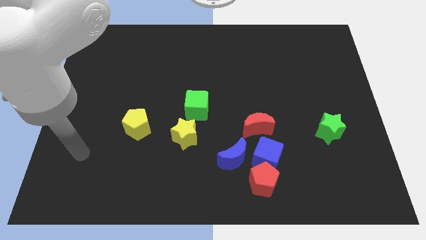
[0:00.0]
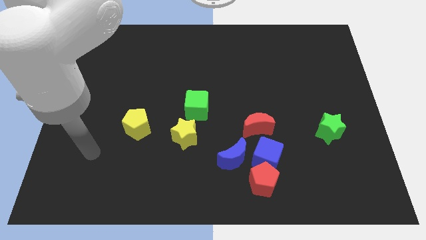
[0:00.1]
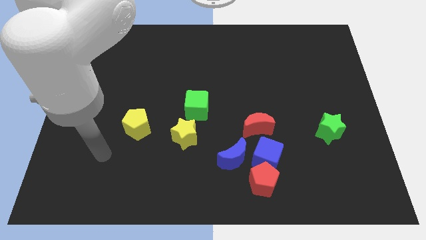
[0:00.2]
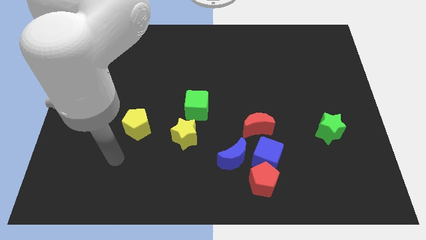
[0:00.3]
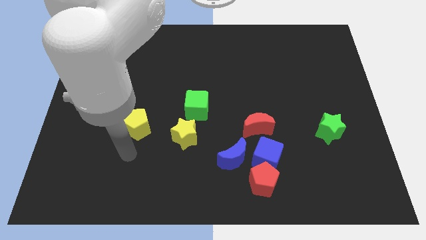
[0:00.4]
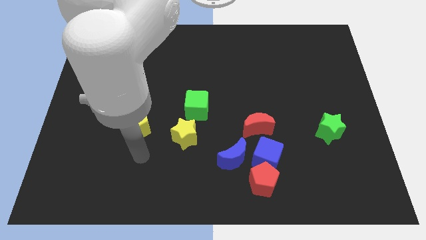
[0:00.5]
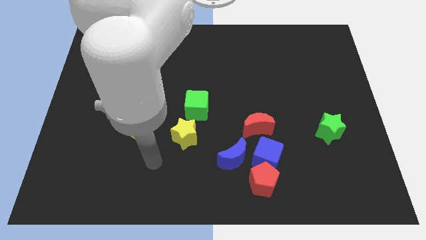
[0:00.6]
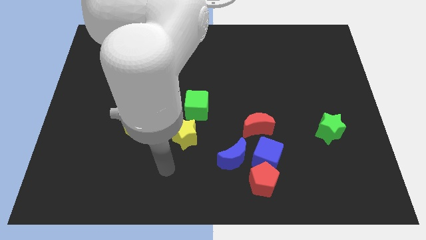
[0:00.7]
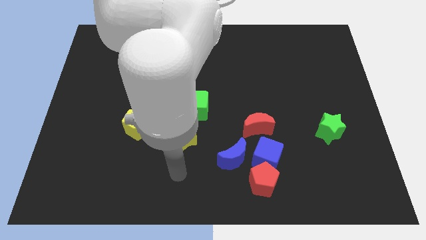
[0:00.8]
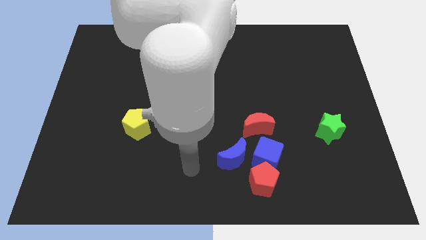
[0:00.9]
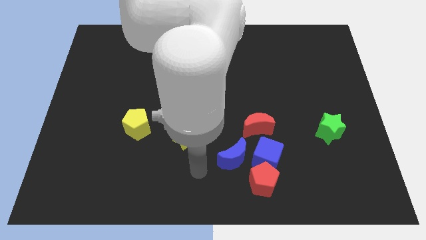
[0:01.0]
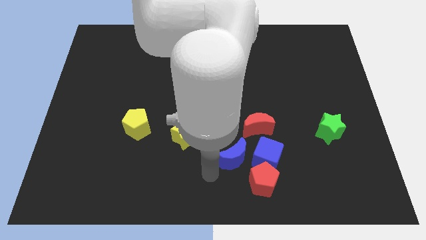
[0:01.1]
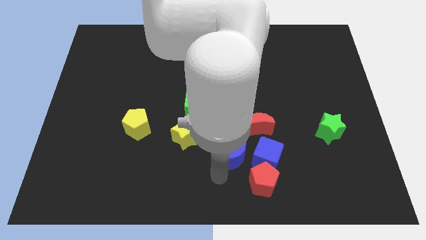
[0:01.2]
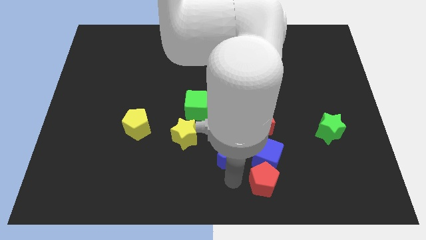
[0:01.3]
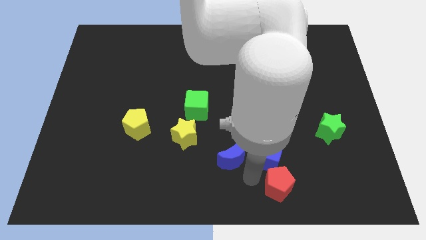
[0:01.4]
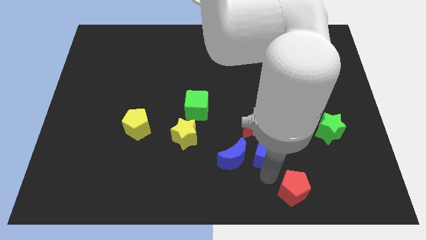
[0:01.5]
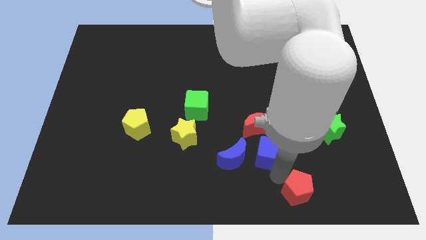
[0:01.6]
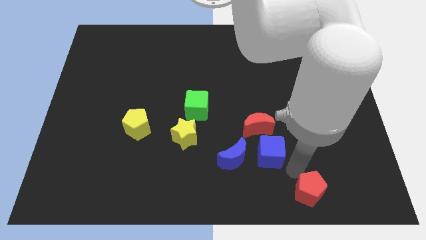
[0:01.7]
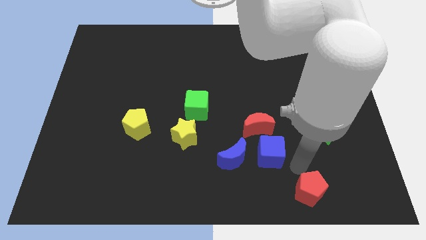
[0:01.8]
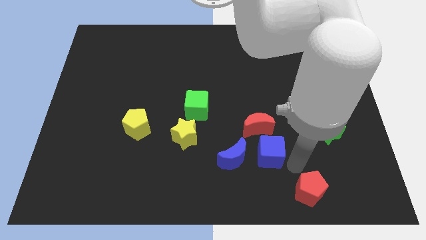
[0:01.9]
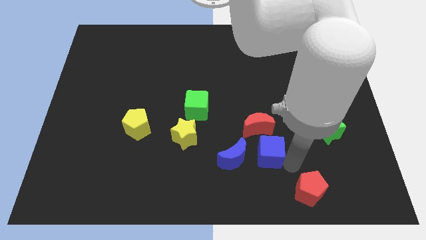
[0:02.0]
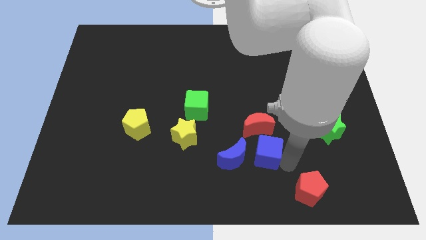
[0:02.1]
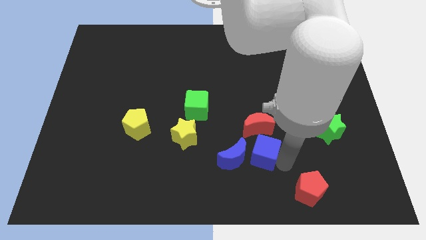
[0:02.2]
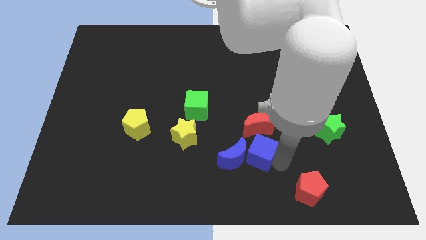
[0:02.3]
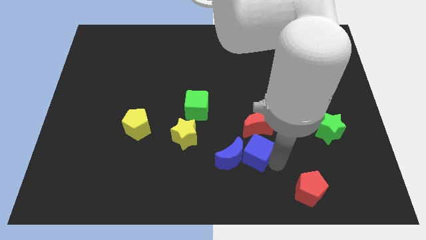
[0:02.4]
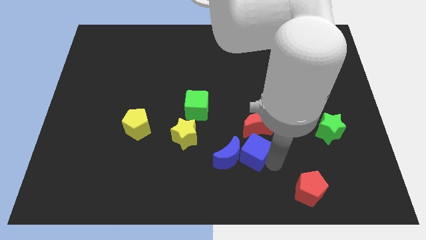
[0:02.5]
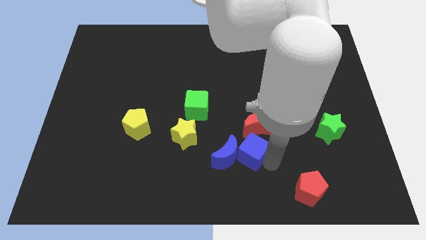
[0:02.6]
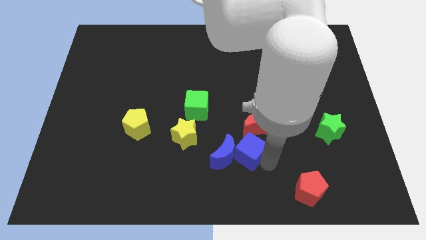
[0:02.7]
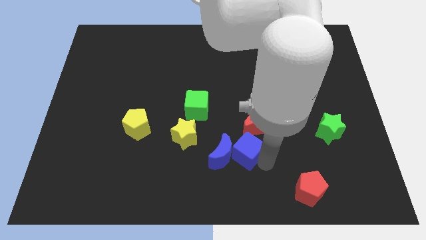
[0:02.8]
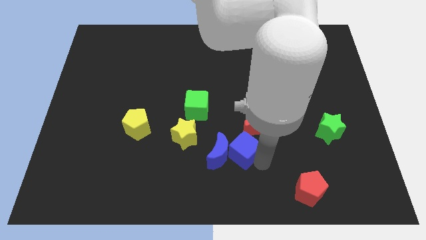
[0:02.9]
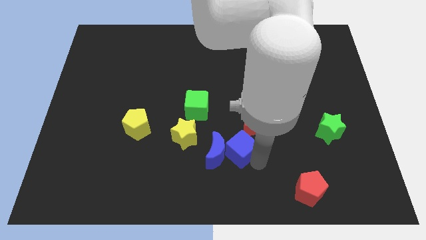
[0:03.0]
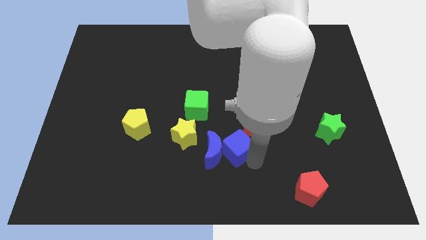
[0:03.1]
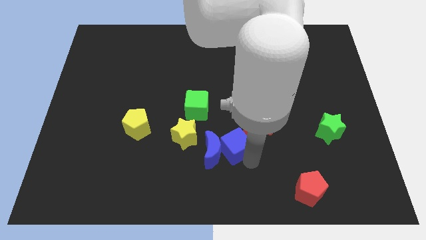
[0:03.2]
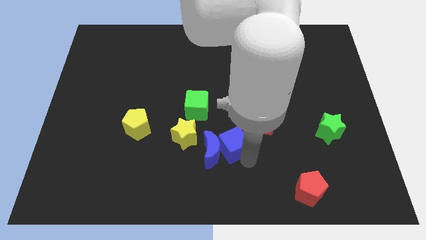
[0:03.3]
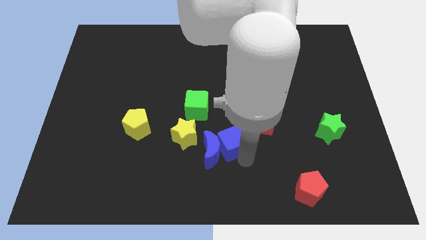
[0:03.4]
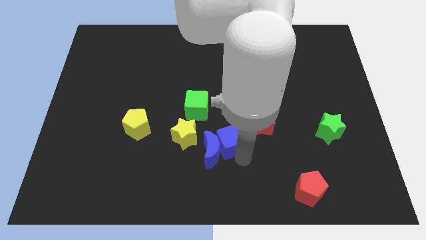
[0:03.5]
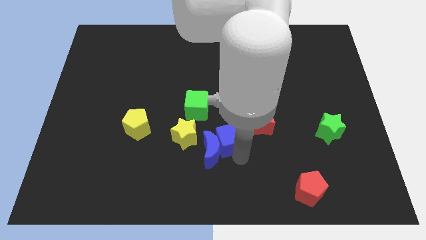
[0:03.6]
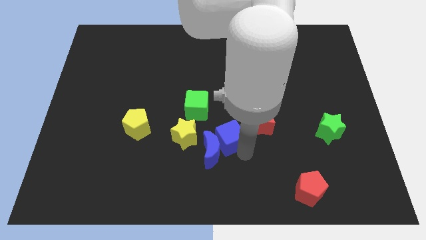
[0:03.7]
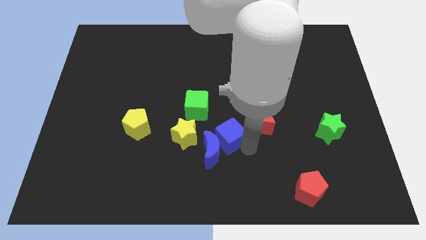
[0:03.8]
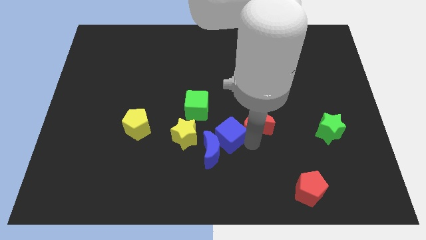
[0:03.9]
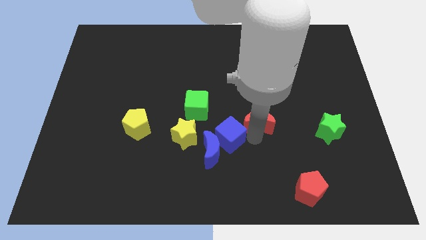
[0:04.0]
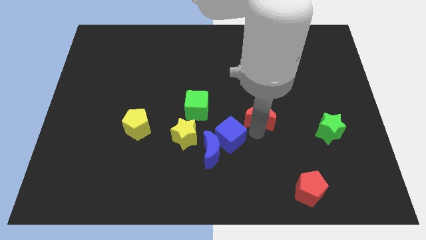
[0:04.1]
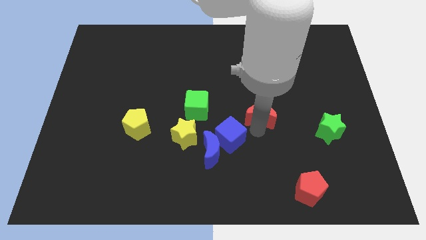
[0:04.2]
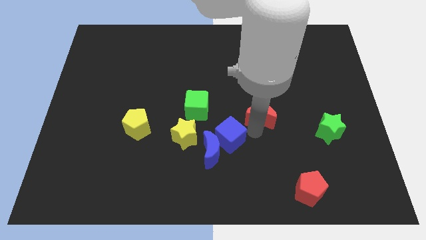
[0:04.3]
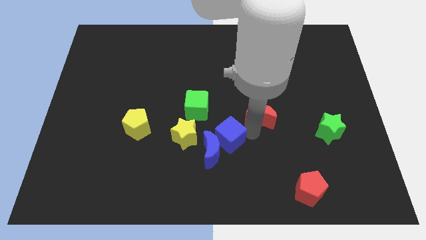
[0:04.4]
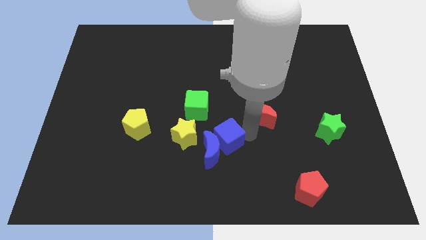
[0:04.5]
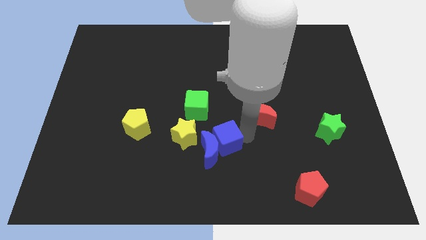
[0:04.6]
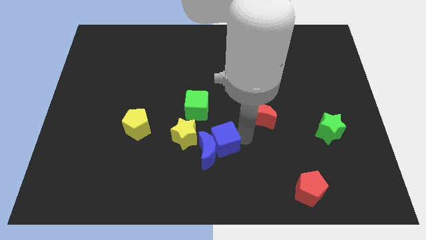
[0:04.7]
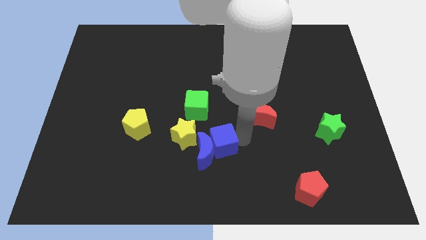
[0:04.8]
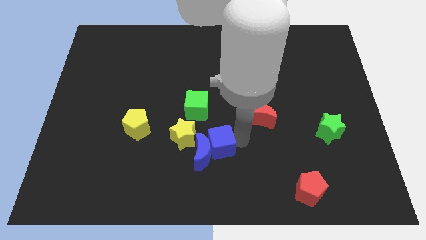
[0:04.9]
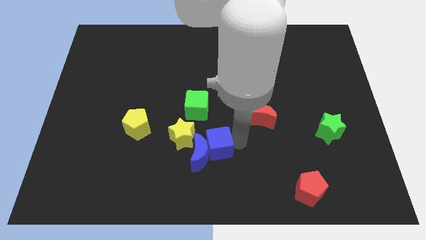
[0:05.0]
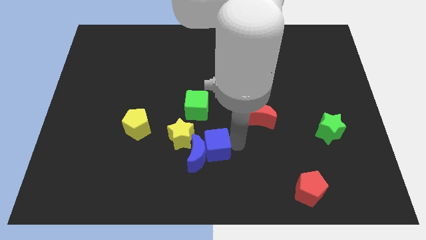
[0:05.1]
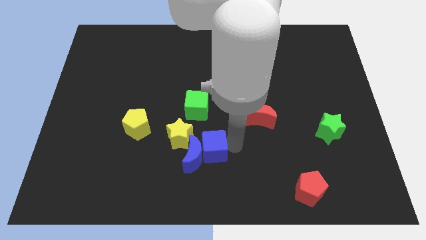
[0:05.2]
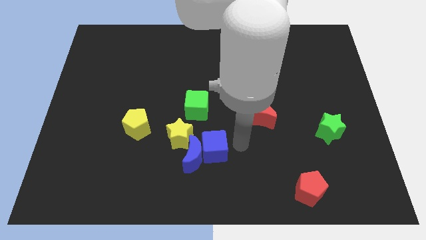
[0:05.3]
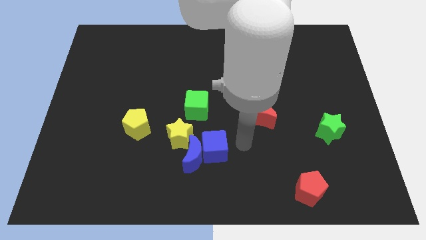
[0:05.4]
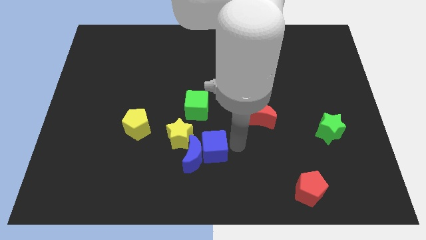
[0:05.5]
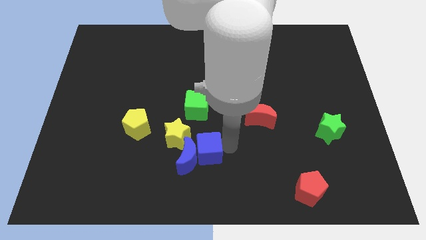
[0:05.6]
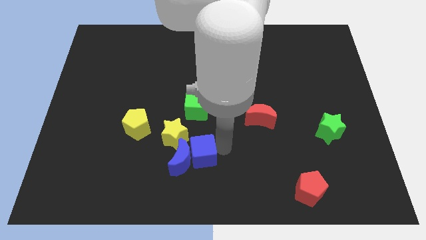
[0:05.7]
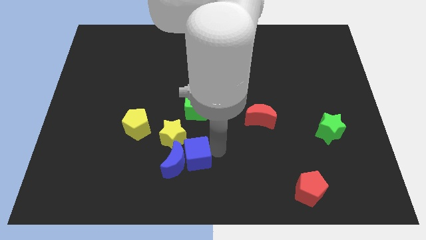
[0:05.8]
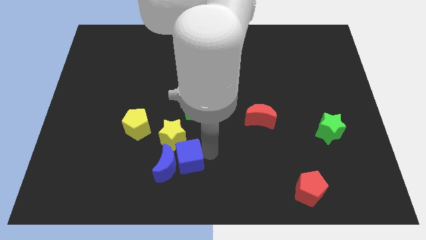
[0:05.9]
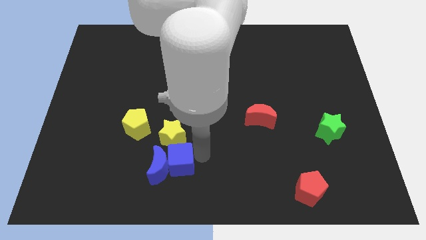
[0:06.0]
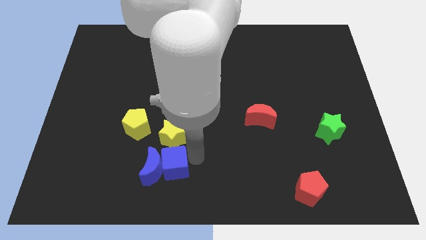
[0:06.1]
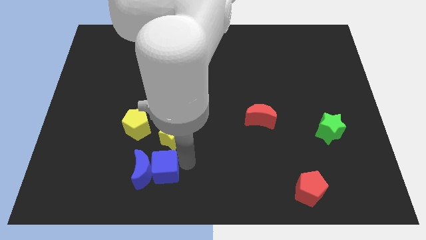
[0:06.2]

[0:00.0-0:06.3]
slide the blue cube to the left

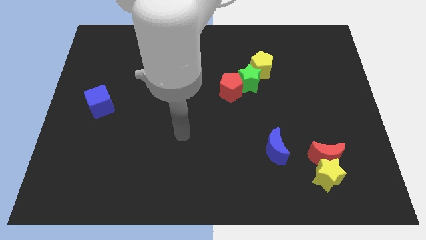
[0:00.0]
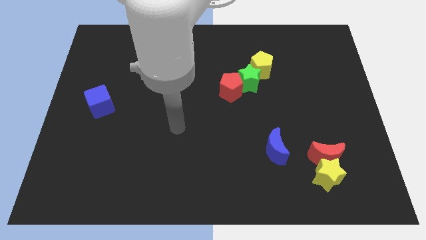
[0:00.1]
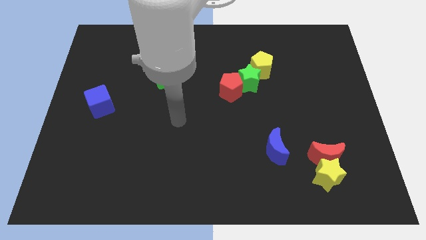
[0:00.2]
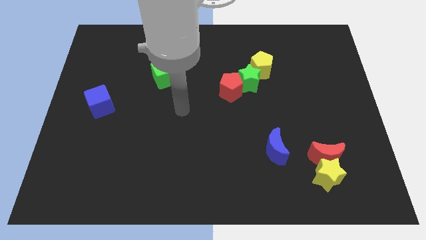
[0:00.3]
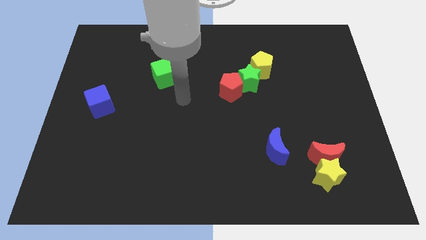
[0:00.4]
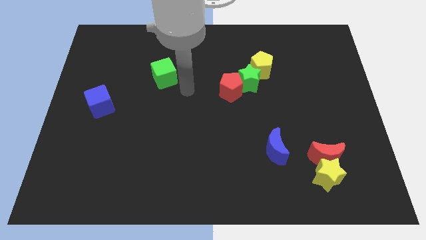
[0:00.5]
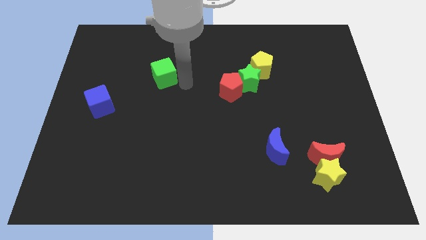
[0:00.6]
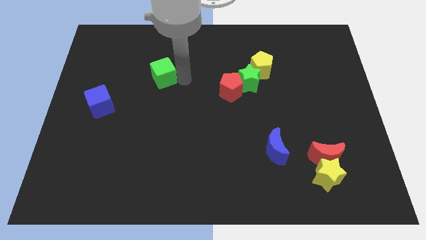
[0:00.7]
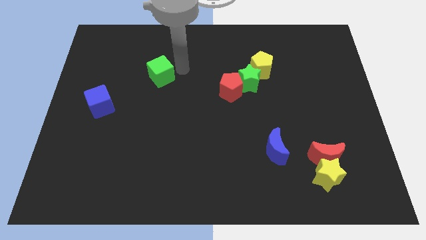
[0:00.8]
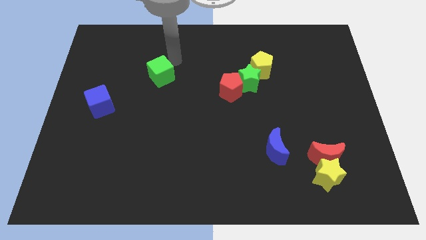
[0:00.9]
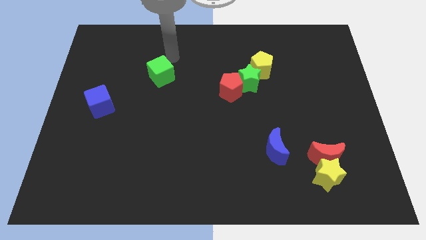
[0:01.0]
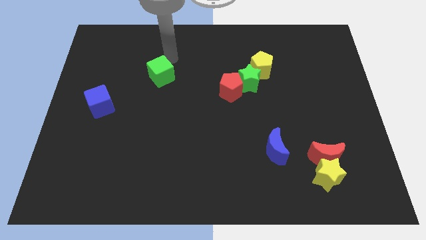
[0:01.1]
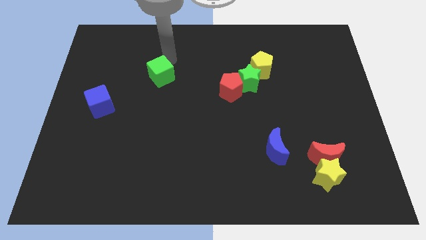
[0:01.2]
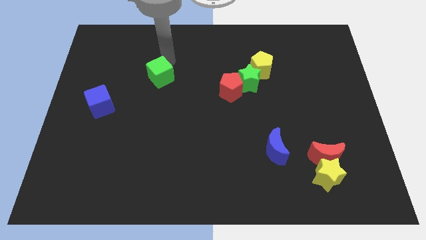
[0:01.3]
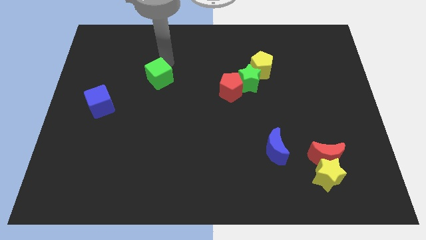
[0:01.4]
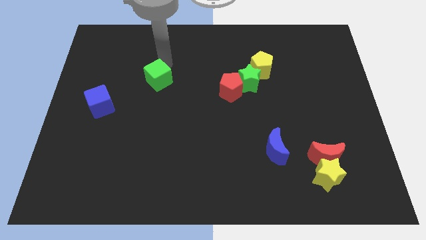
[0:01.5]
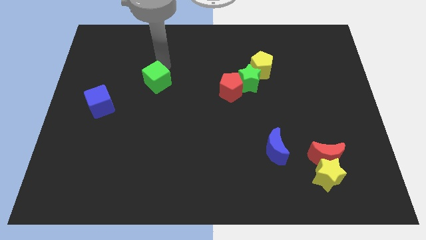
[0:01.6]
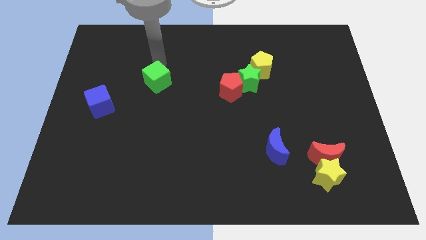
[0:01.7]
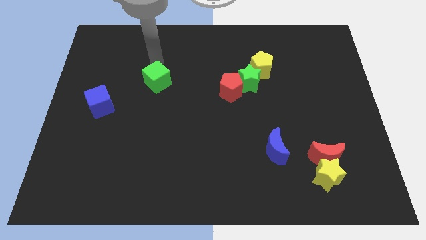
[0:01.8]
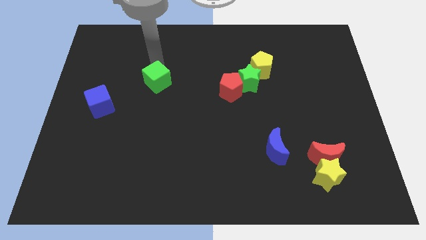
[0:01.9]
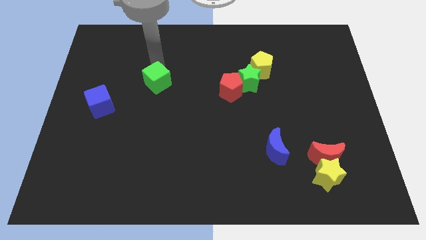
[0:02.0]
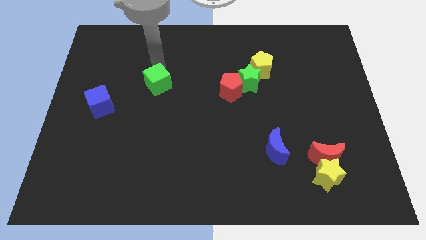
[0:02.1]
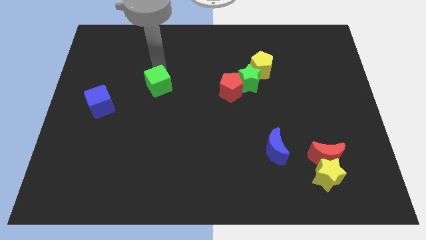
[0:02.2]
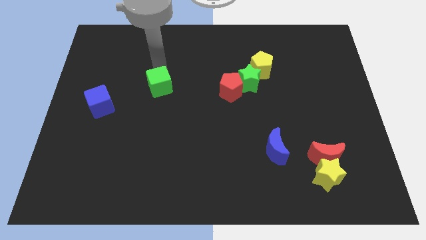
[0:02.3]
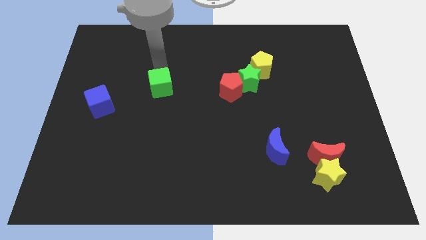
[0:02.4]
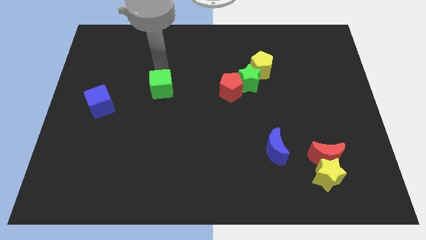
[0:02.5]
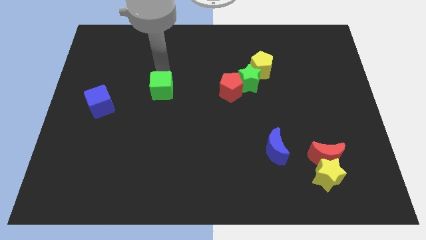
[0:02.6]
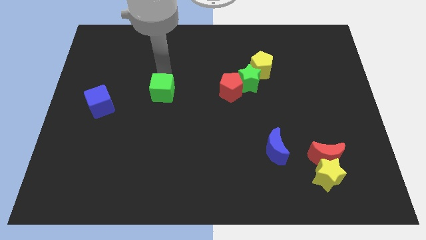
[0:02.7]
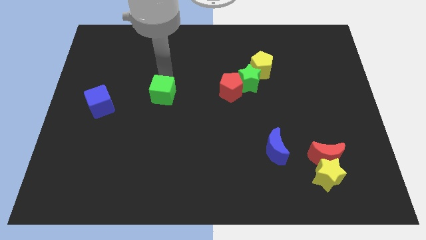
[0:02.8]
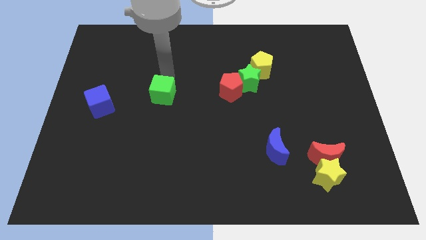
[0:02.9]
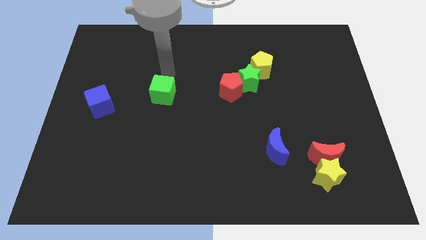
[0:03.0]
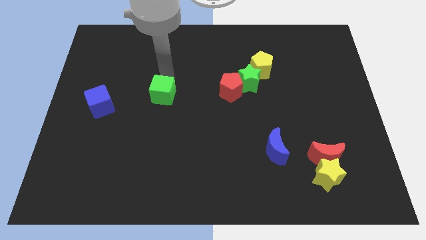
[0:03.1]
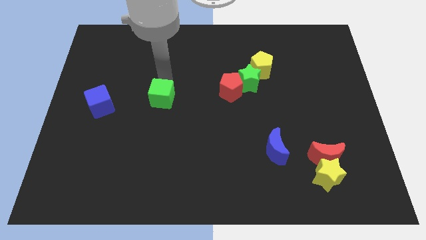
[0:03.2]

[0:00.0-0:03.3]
slightly push the green cube down
